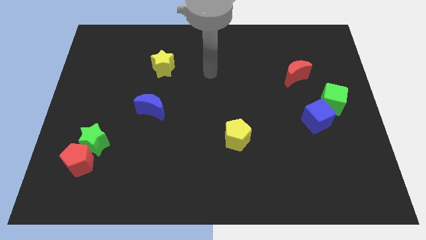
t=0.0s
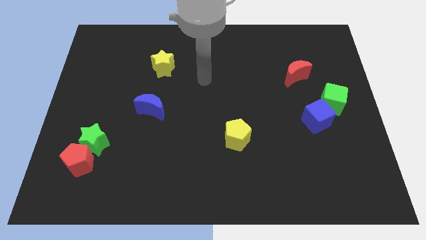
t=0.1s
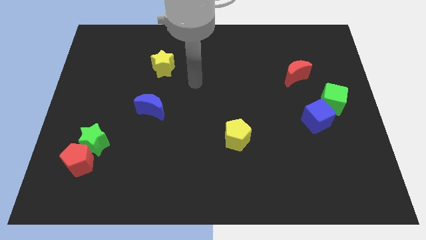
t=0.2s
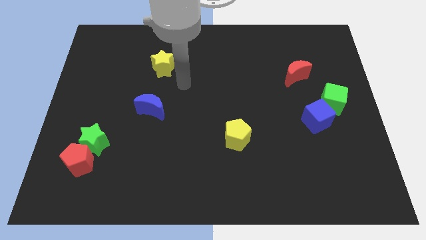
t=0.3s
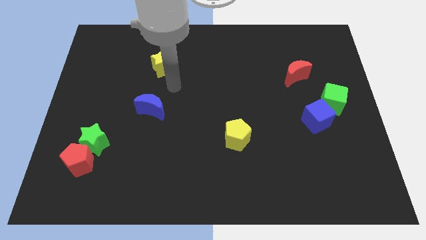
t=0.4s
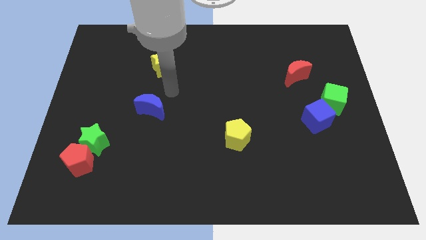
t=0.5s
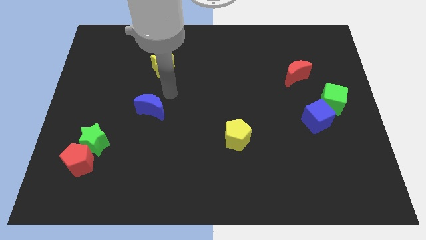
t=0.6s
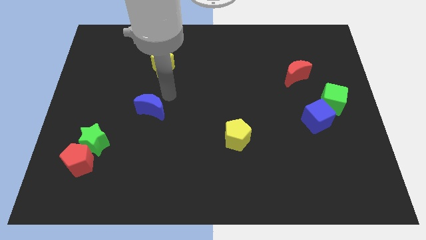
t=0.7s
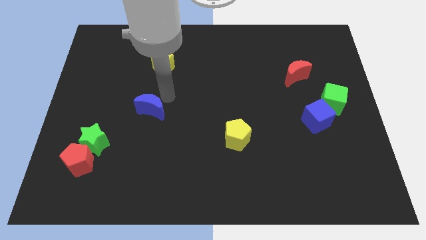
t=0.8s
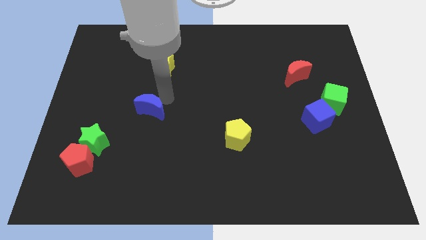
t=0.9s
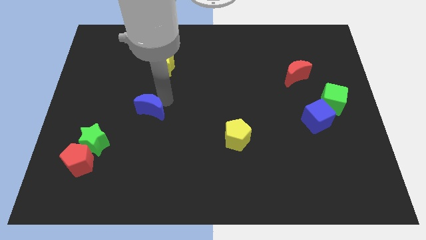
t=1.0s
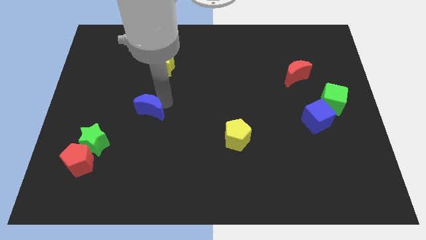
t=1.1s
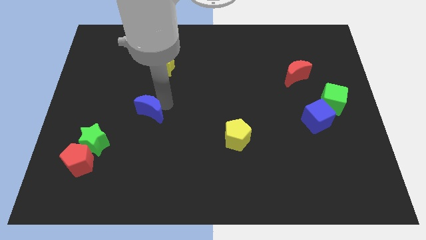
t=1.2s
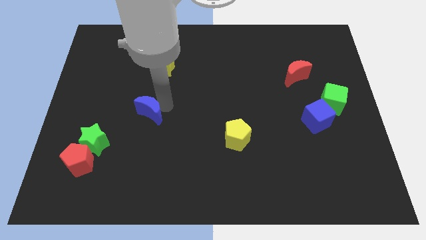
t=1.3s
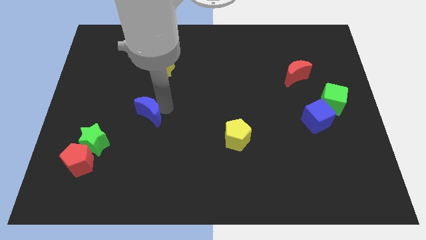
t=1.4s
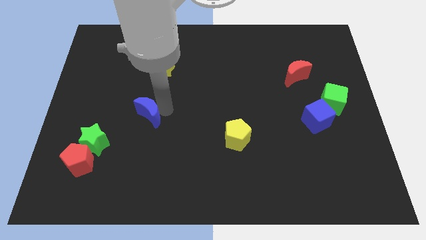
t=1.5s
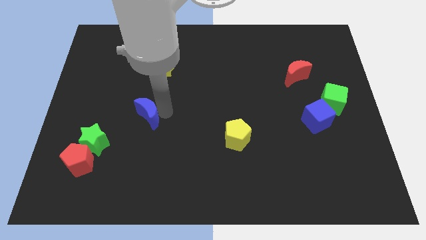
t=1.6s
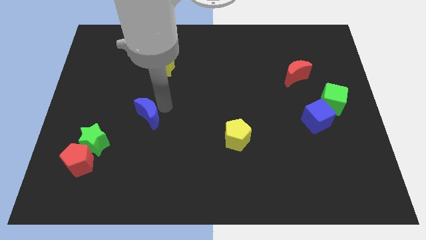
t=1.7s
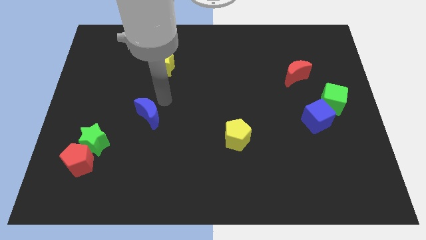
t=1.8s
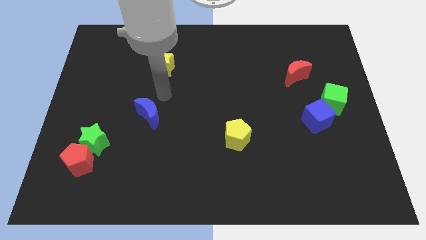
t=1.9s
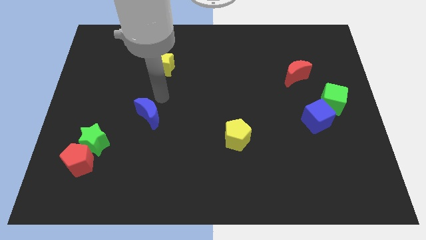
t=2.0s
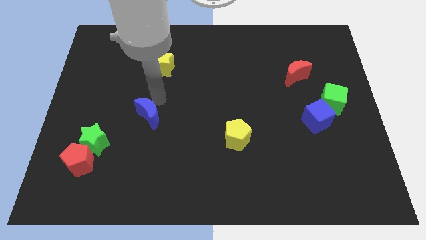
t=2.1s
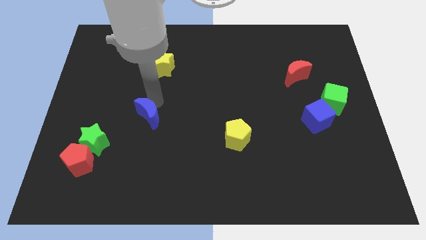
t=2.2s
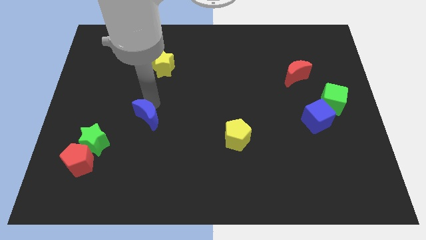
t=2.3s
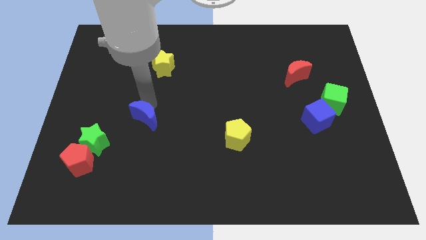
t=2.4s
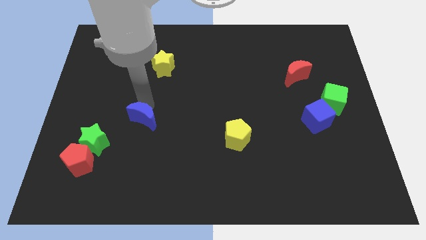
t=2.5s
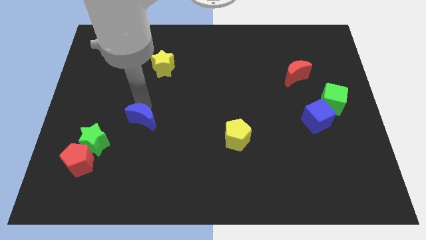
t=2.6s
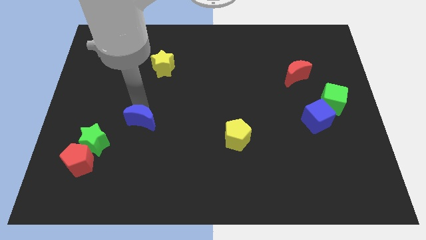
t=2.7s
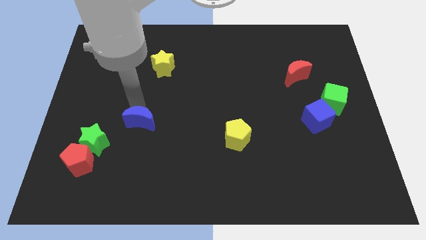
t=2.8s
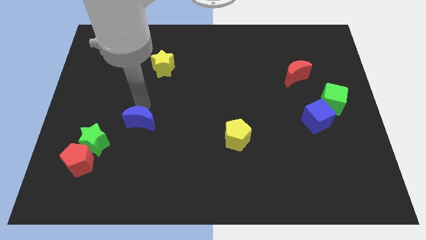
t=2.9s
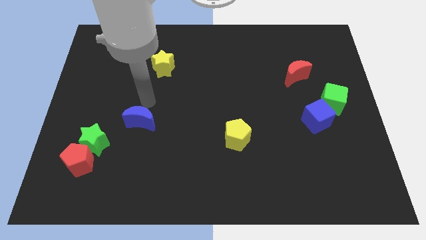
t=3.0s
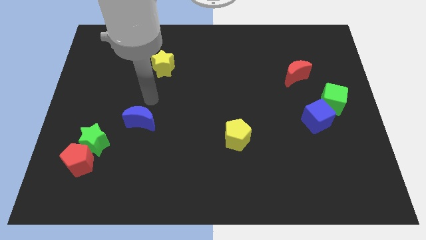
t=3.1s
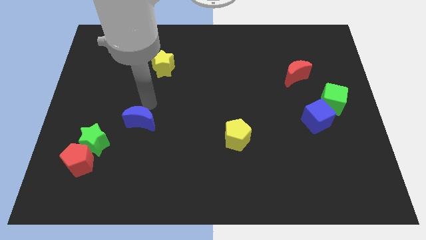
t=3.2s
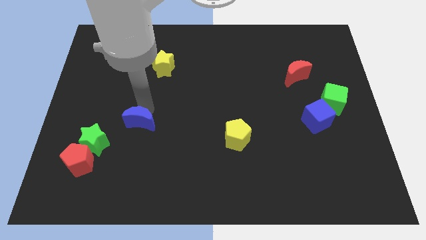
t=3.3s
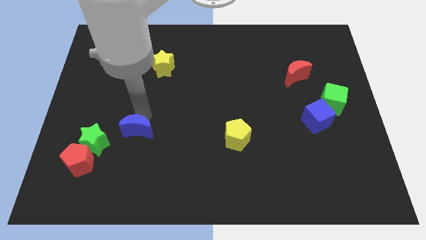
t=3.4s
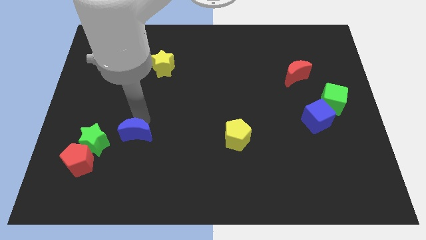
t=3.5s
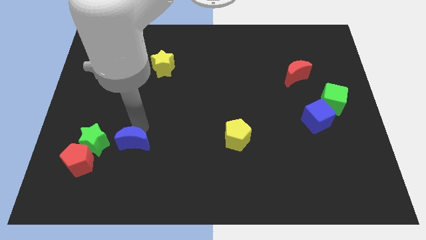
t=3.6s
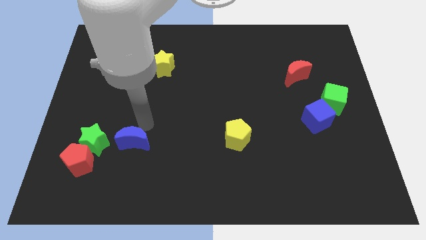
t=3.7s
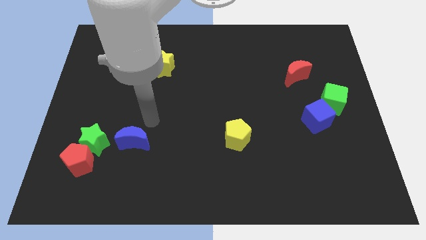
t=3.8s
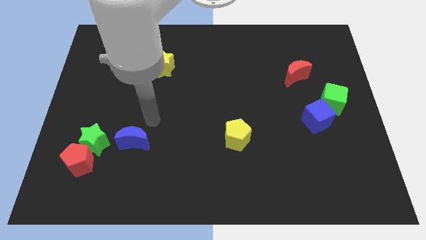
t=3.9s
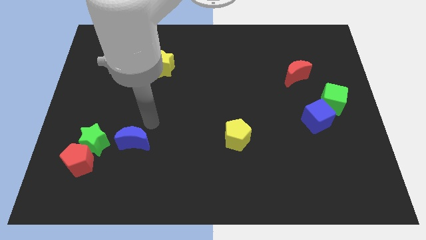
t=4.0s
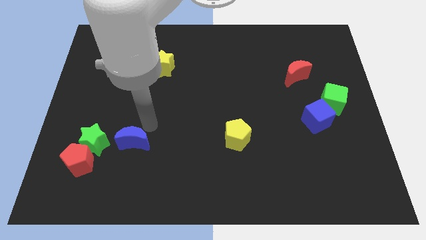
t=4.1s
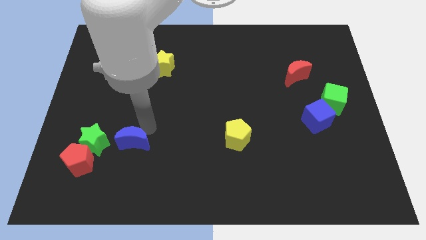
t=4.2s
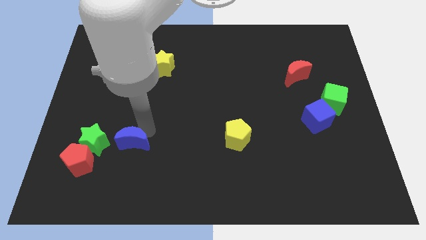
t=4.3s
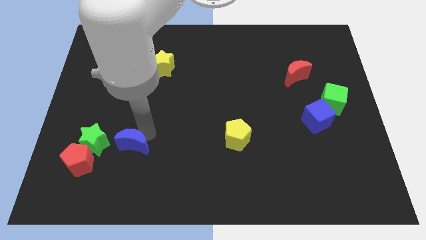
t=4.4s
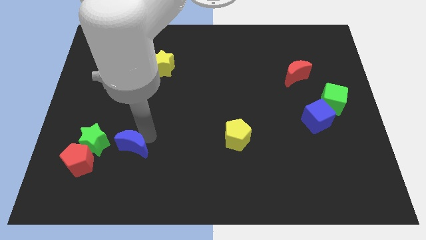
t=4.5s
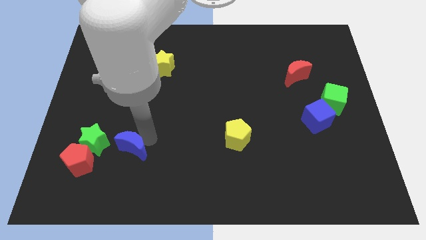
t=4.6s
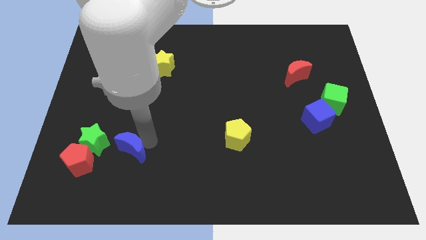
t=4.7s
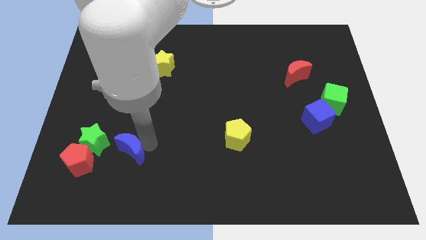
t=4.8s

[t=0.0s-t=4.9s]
push the blue moon diagonally down and to the right of the green star
